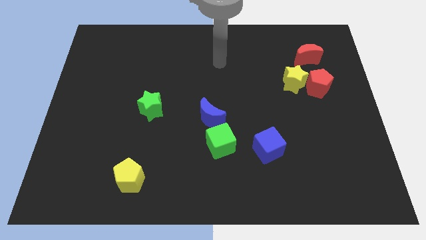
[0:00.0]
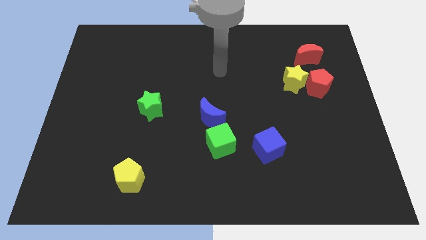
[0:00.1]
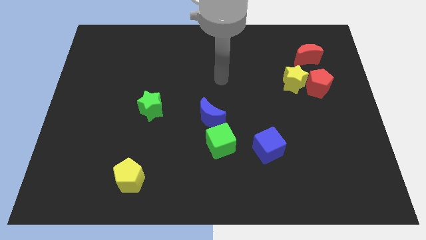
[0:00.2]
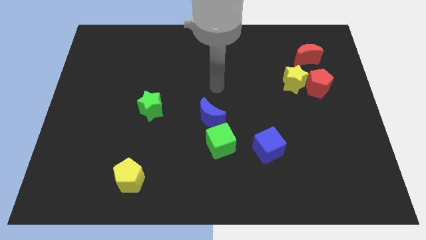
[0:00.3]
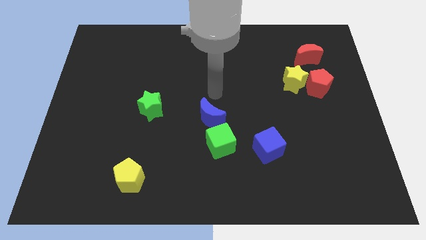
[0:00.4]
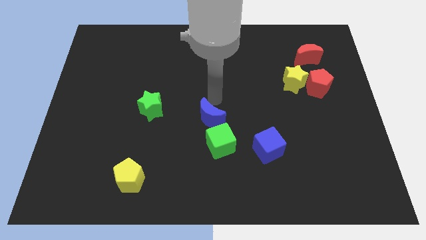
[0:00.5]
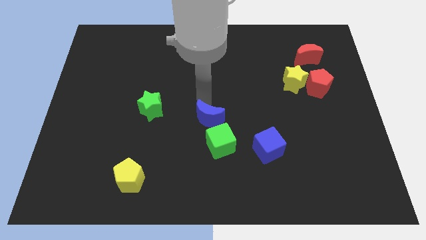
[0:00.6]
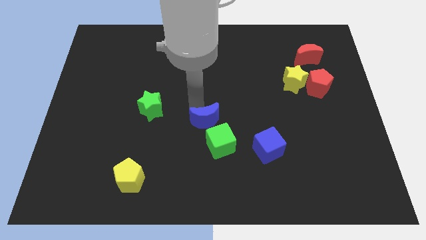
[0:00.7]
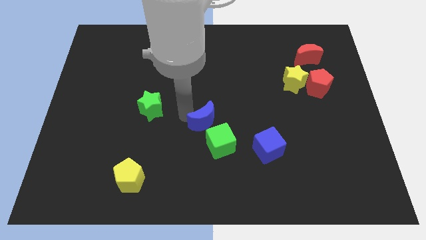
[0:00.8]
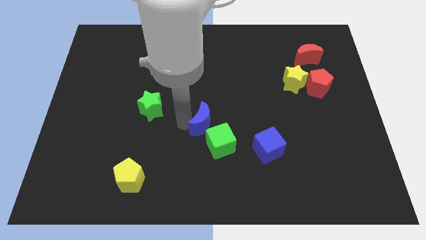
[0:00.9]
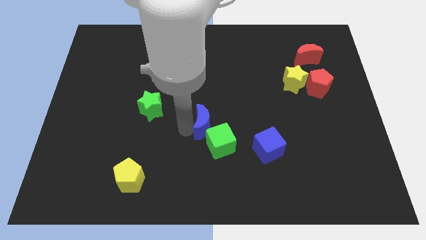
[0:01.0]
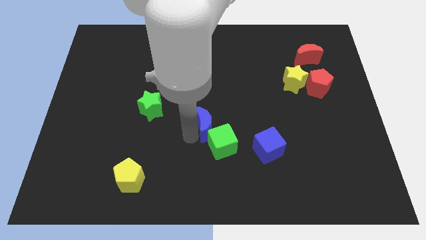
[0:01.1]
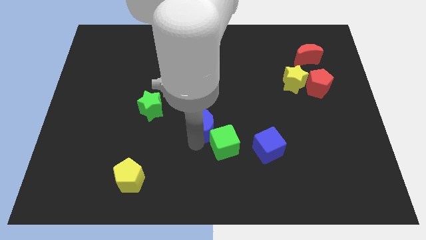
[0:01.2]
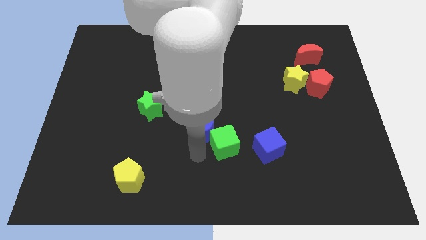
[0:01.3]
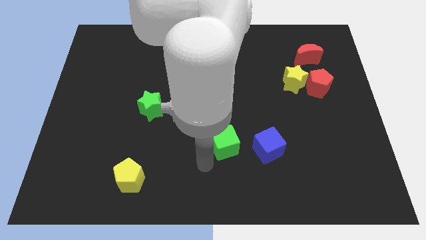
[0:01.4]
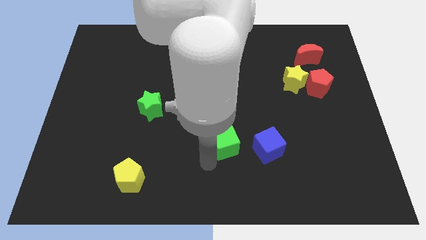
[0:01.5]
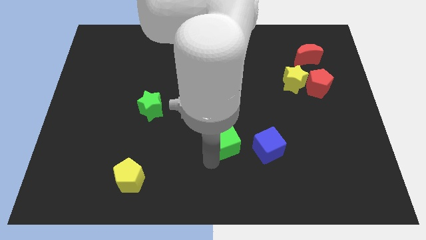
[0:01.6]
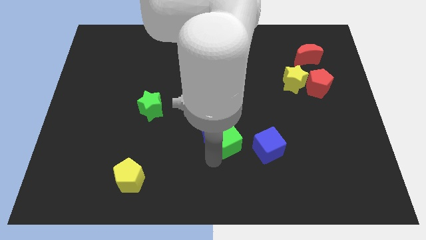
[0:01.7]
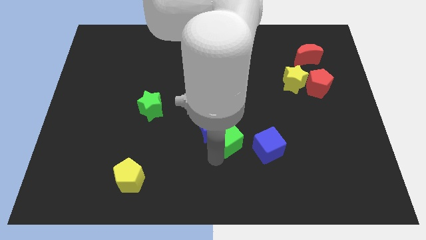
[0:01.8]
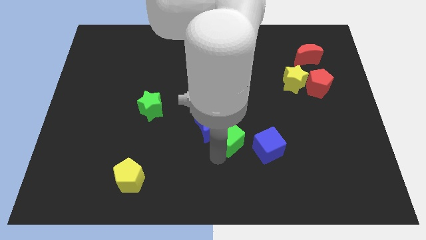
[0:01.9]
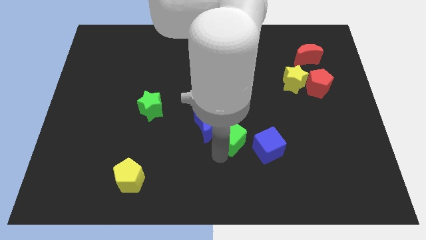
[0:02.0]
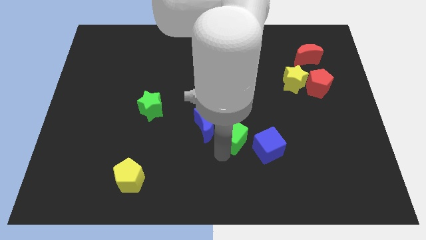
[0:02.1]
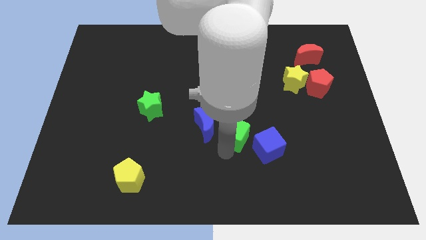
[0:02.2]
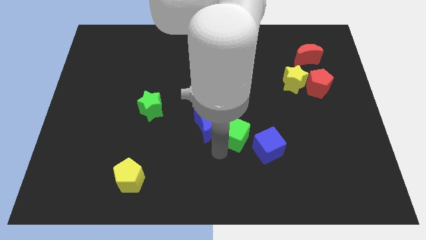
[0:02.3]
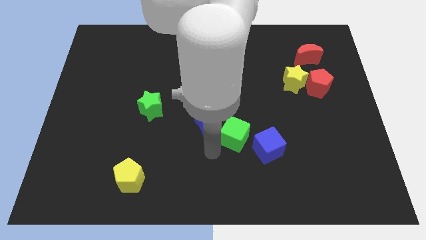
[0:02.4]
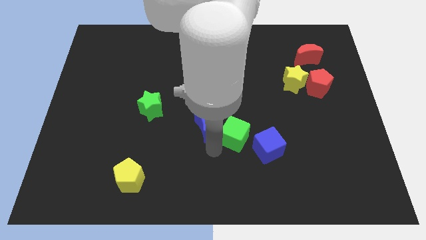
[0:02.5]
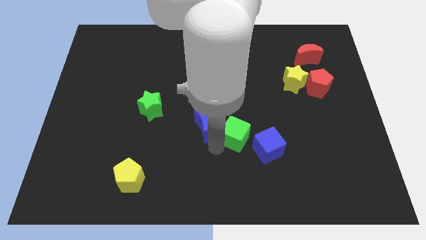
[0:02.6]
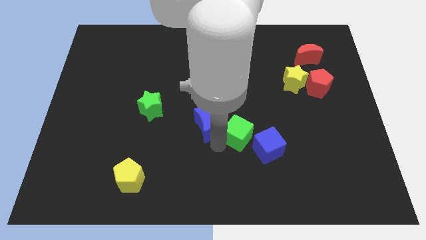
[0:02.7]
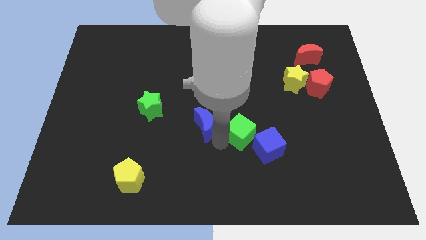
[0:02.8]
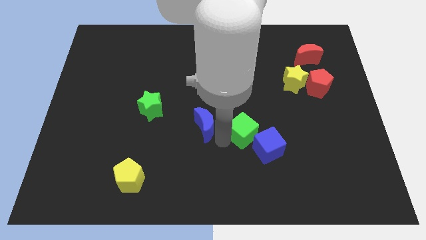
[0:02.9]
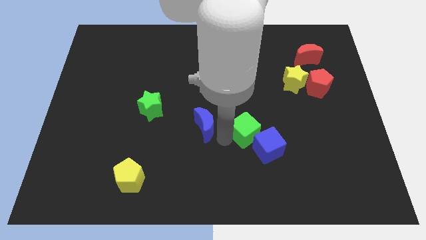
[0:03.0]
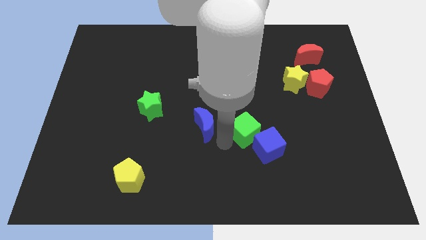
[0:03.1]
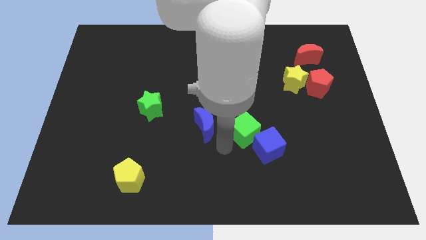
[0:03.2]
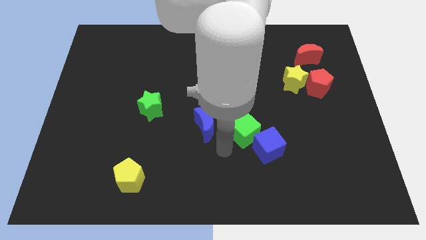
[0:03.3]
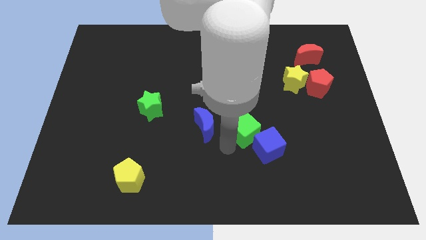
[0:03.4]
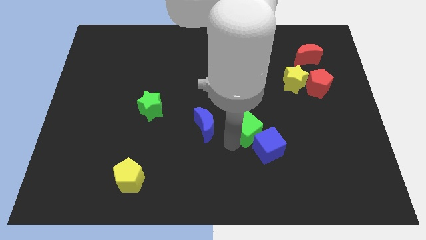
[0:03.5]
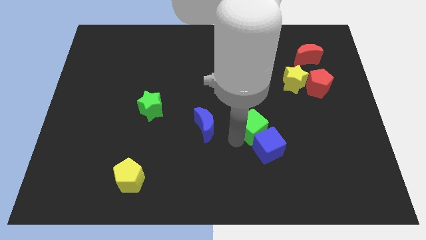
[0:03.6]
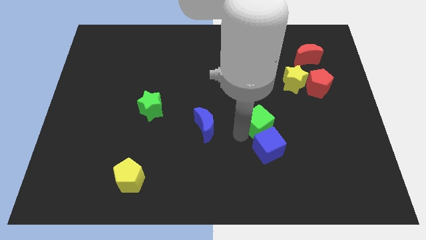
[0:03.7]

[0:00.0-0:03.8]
push the green cube somewhat right

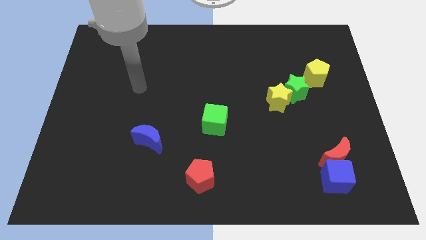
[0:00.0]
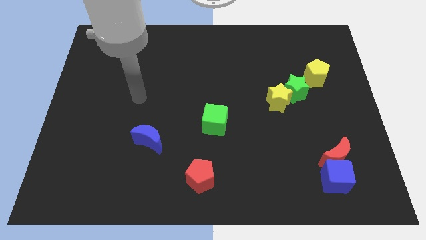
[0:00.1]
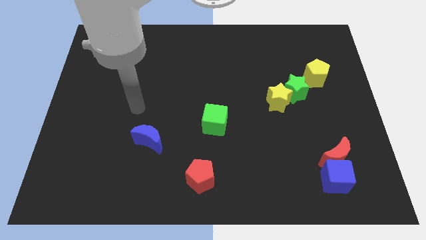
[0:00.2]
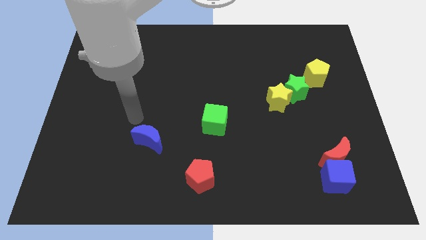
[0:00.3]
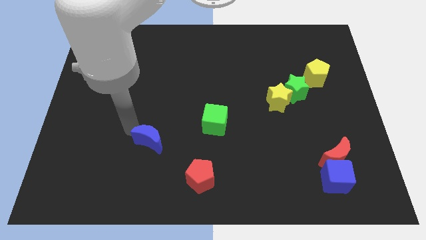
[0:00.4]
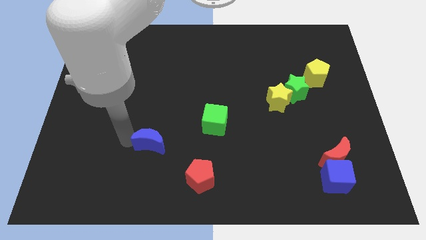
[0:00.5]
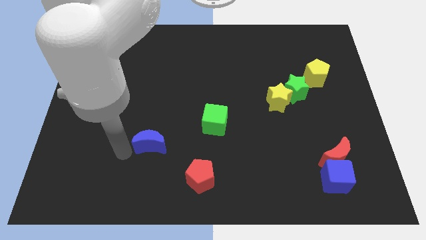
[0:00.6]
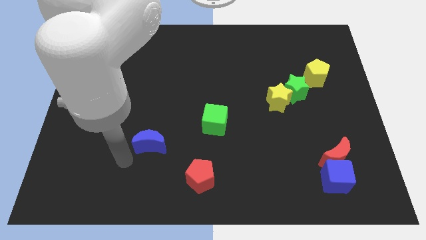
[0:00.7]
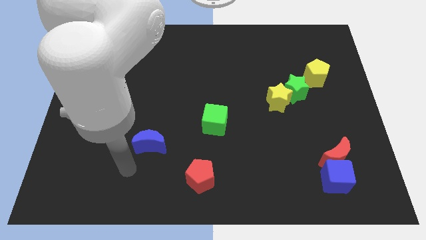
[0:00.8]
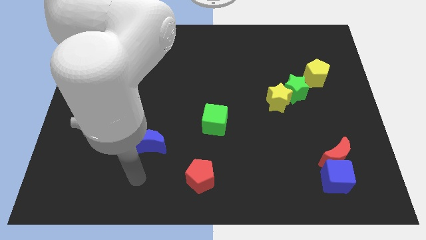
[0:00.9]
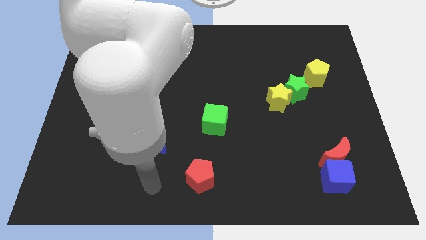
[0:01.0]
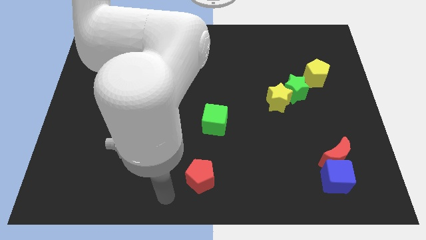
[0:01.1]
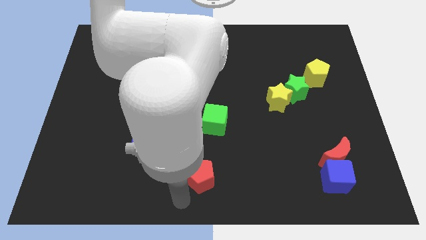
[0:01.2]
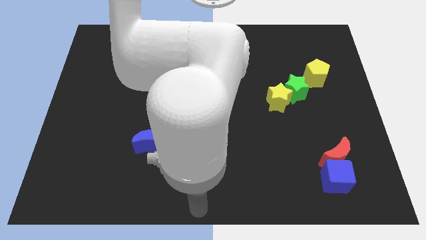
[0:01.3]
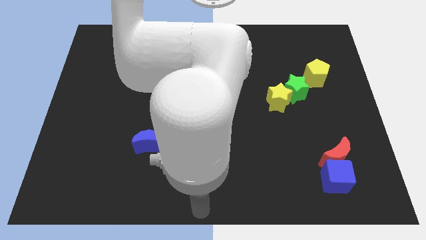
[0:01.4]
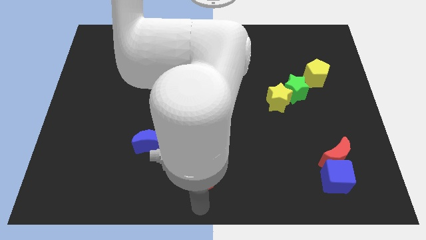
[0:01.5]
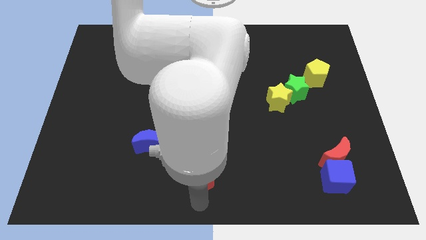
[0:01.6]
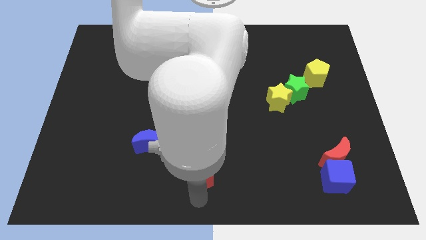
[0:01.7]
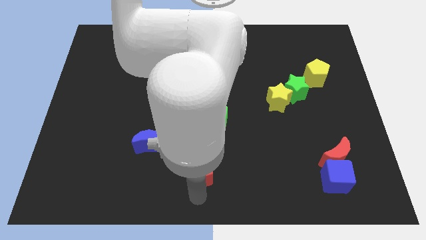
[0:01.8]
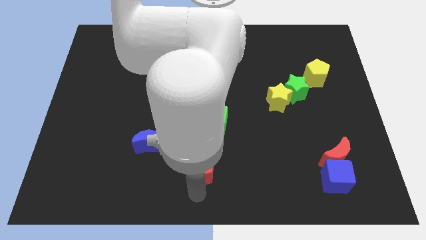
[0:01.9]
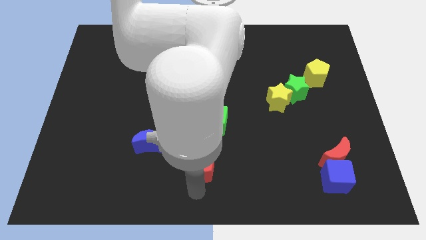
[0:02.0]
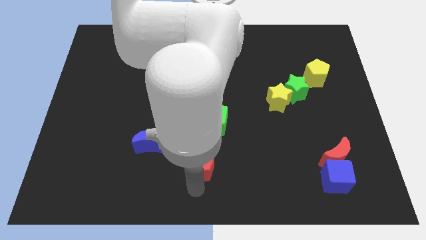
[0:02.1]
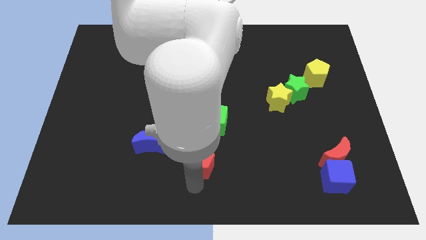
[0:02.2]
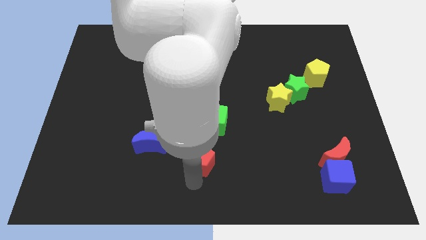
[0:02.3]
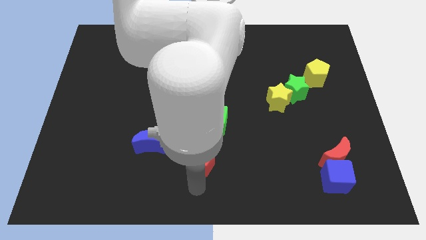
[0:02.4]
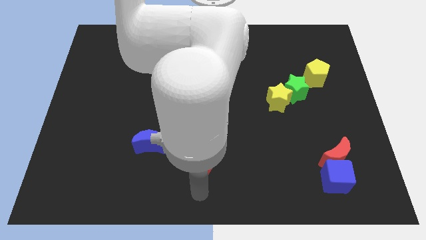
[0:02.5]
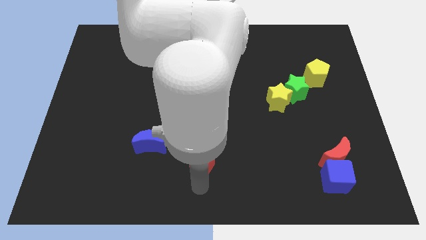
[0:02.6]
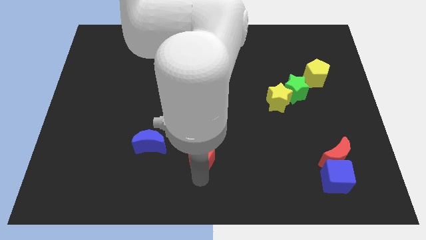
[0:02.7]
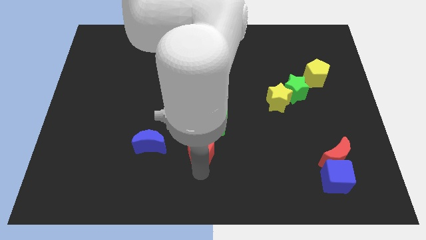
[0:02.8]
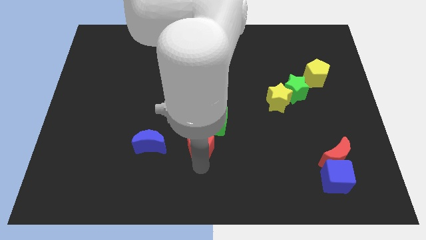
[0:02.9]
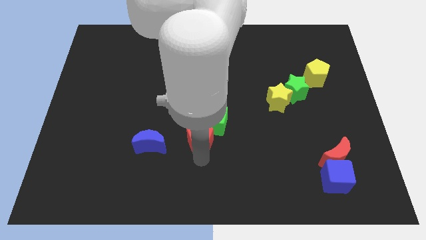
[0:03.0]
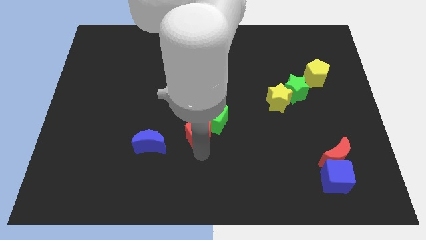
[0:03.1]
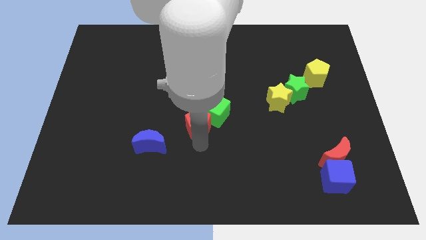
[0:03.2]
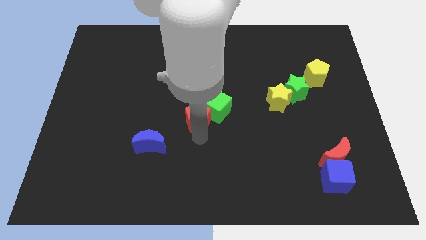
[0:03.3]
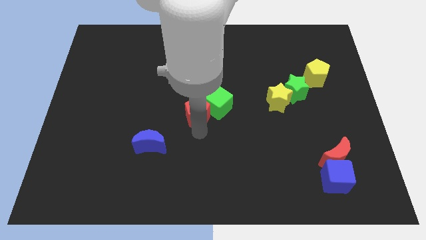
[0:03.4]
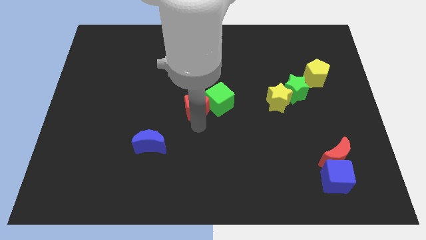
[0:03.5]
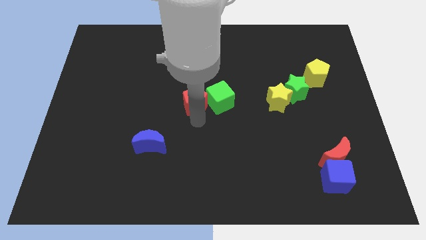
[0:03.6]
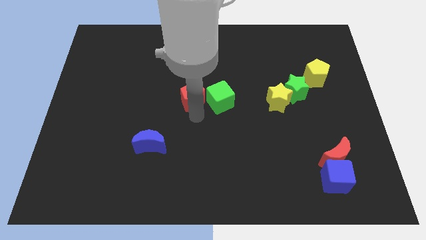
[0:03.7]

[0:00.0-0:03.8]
move the red pentagon up
